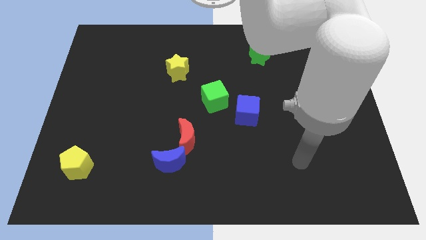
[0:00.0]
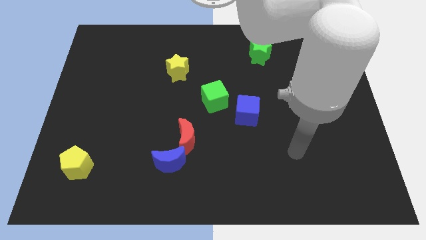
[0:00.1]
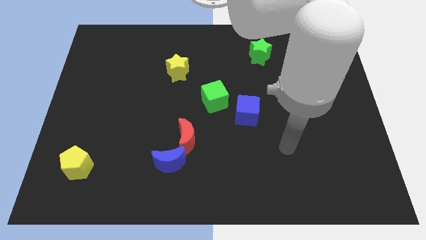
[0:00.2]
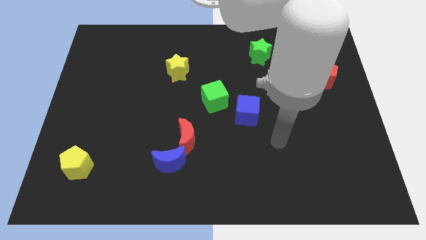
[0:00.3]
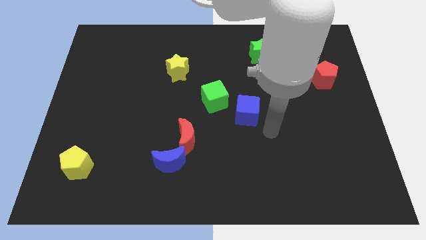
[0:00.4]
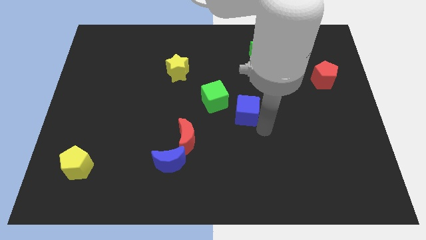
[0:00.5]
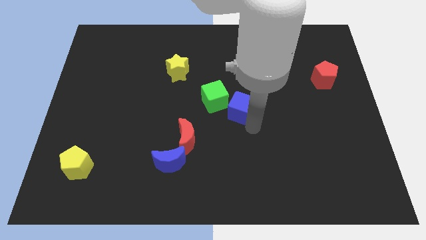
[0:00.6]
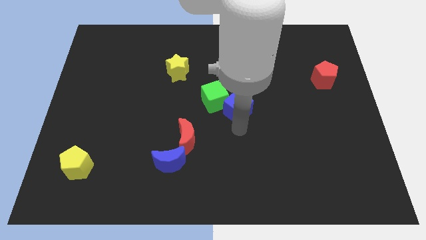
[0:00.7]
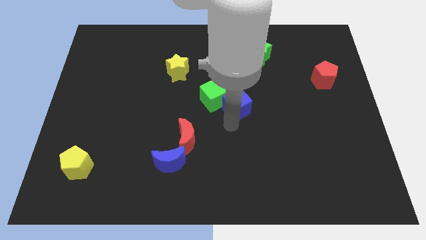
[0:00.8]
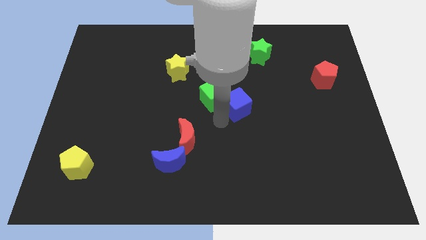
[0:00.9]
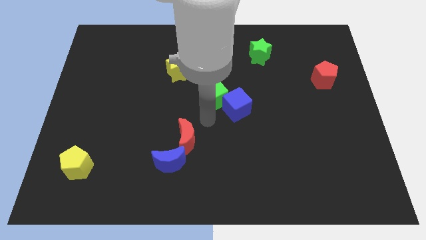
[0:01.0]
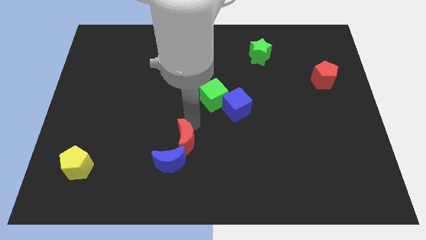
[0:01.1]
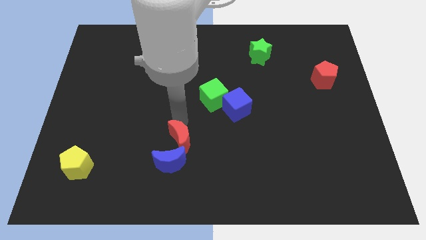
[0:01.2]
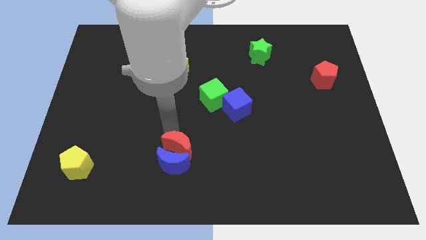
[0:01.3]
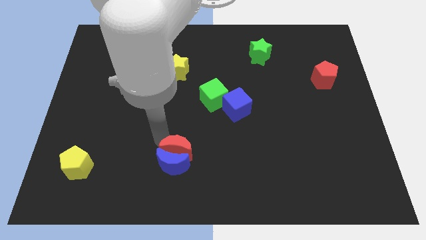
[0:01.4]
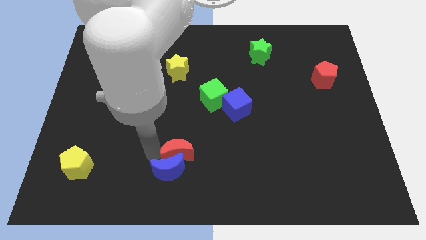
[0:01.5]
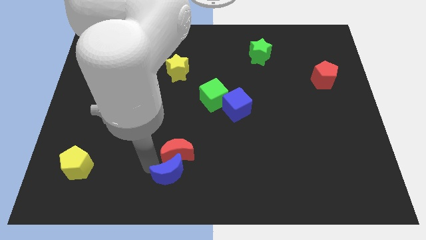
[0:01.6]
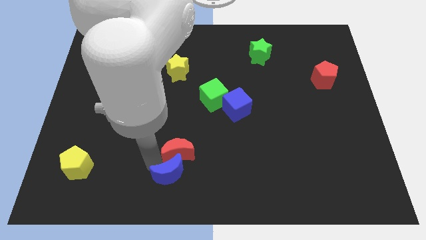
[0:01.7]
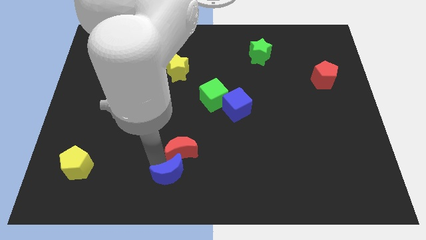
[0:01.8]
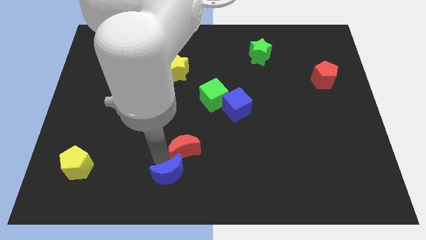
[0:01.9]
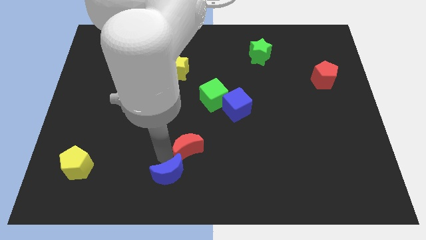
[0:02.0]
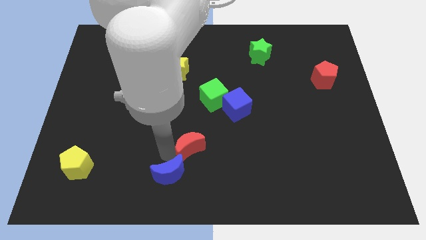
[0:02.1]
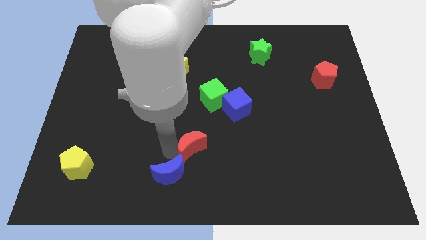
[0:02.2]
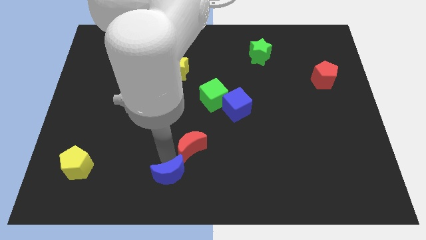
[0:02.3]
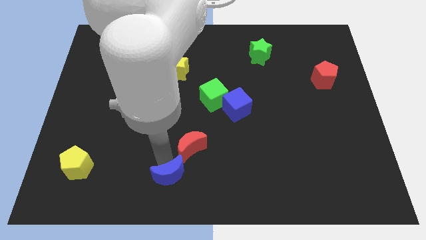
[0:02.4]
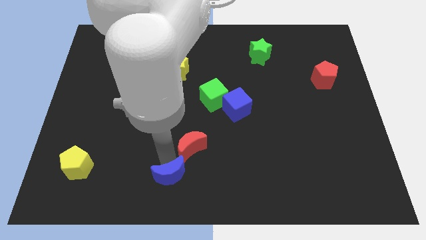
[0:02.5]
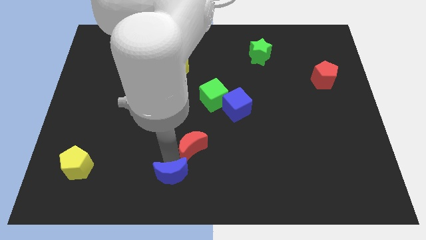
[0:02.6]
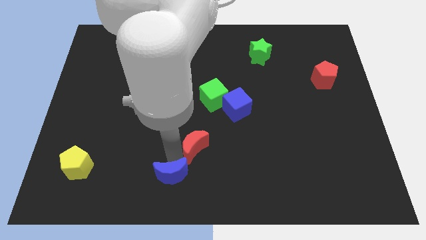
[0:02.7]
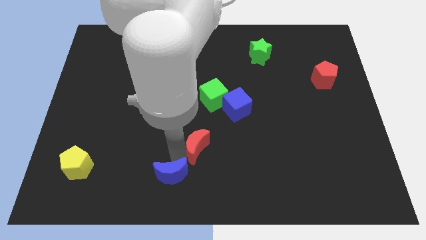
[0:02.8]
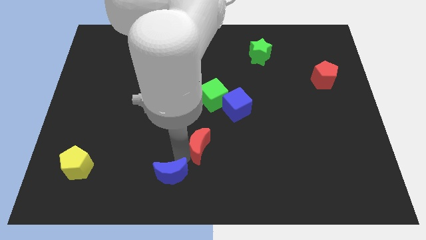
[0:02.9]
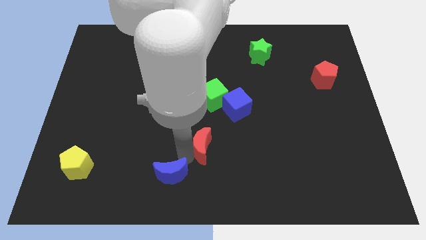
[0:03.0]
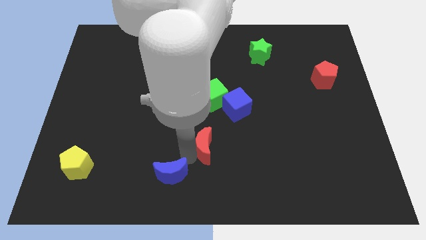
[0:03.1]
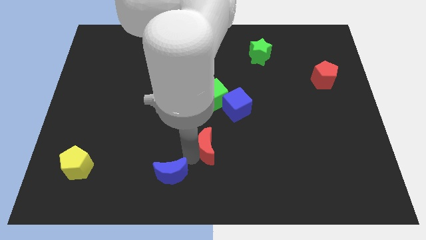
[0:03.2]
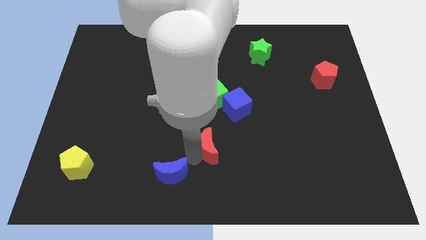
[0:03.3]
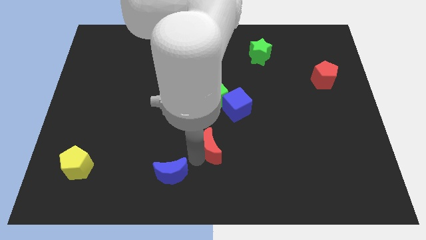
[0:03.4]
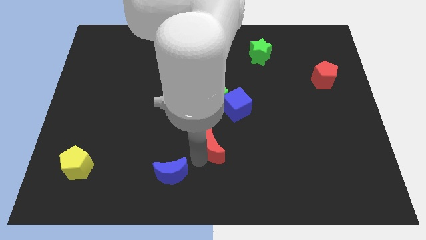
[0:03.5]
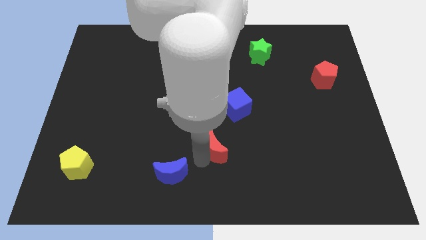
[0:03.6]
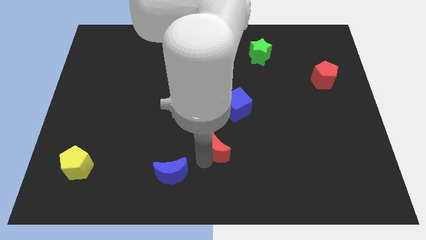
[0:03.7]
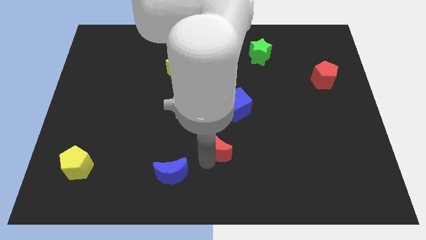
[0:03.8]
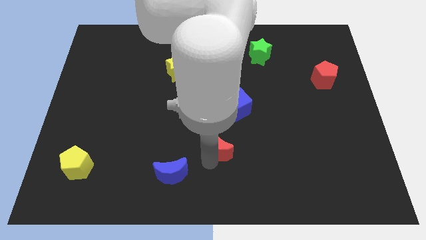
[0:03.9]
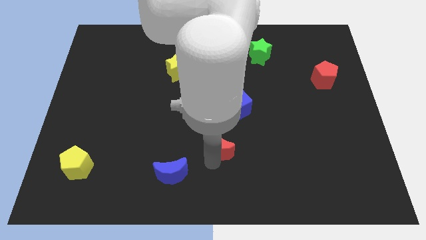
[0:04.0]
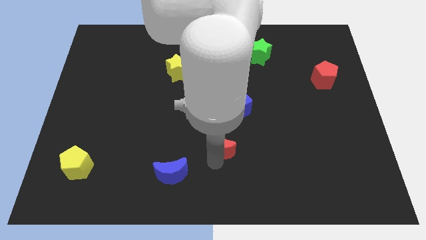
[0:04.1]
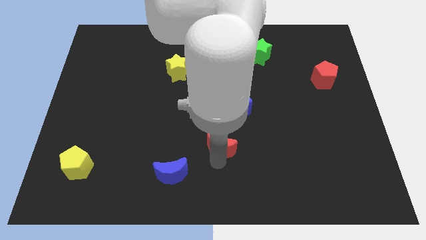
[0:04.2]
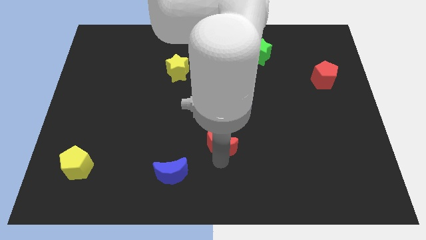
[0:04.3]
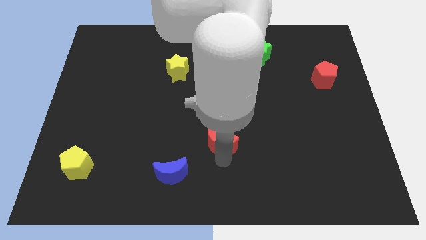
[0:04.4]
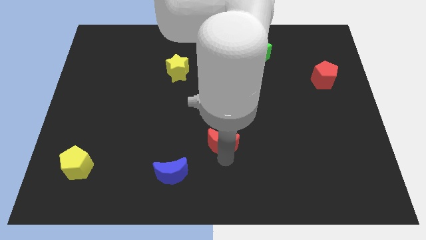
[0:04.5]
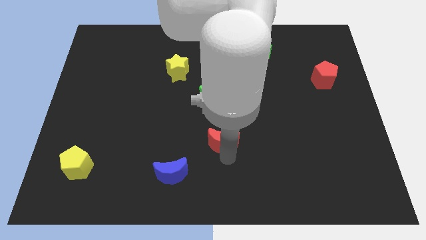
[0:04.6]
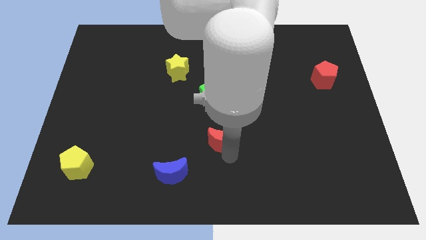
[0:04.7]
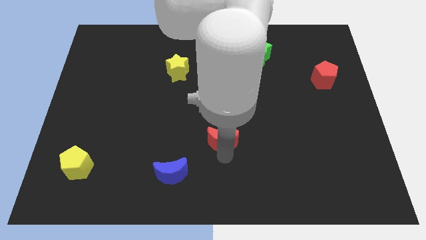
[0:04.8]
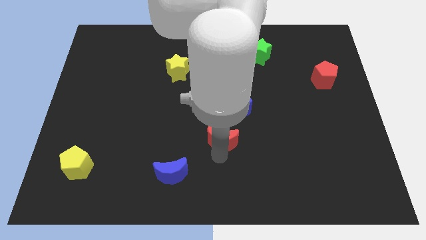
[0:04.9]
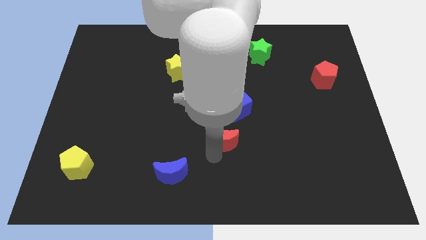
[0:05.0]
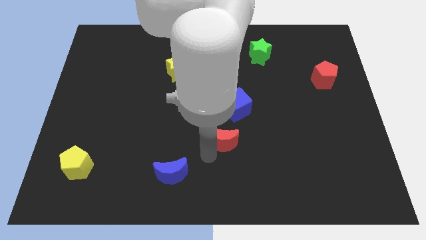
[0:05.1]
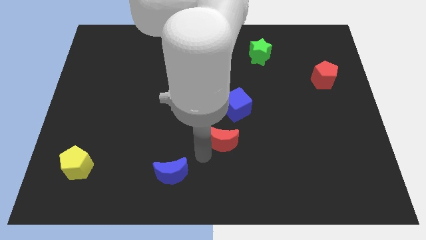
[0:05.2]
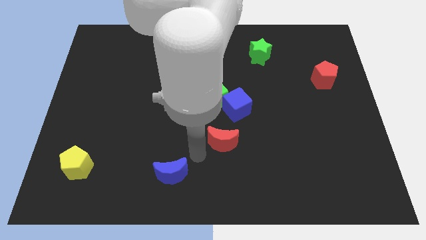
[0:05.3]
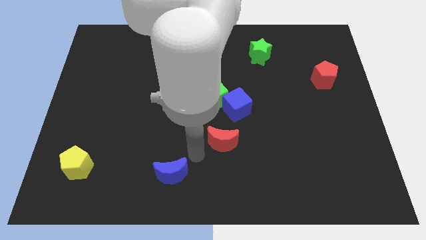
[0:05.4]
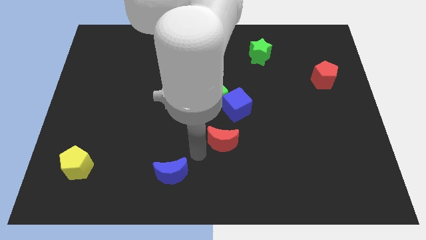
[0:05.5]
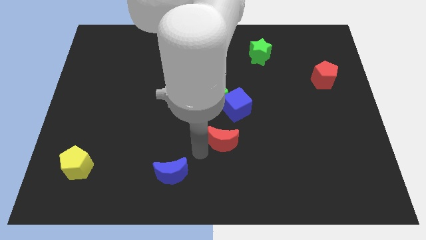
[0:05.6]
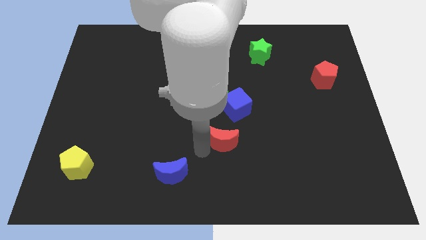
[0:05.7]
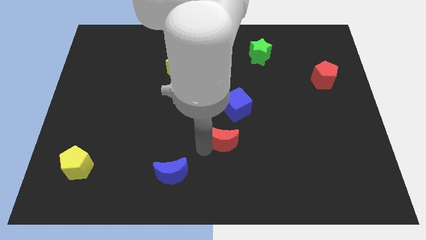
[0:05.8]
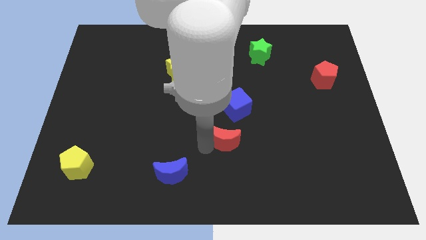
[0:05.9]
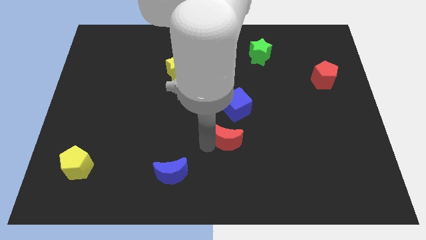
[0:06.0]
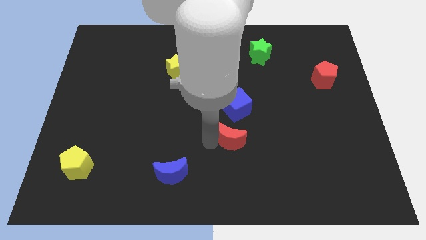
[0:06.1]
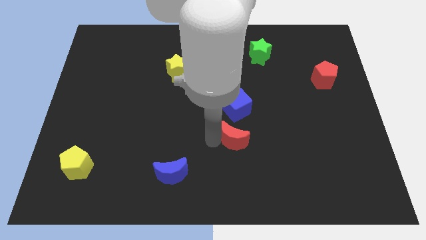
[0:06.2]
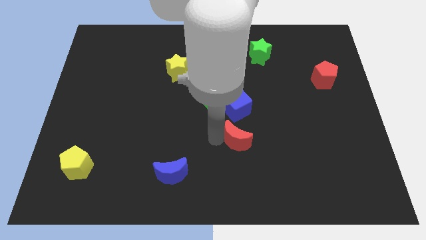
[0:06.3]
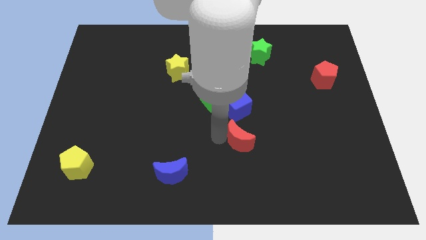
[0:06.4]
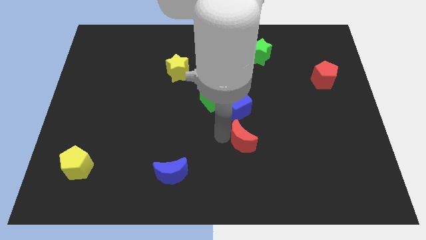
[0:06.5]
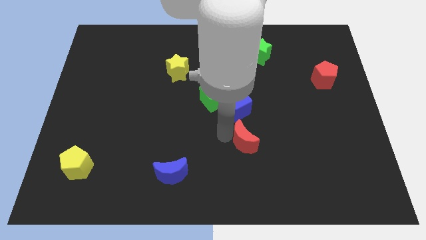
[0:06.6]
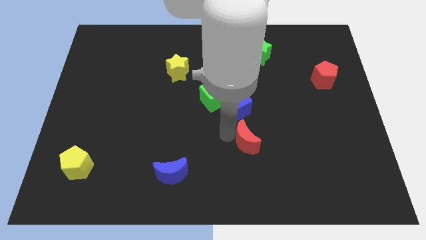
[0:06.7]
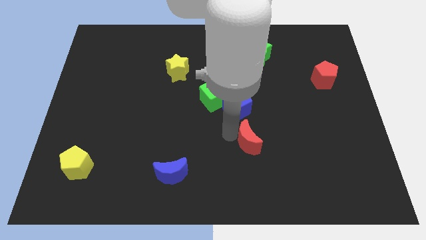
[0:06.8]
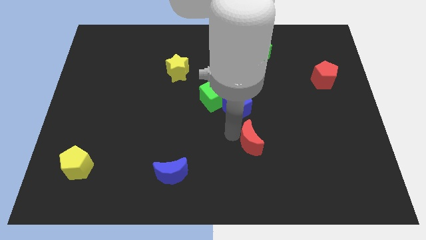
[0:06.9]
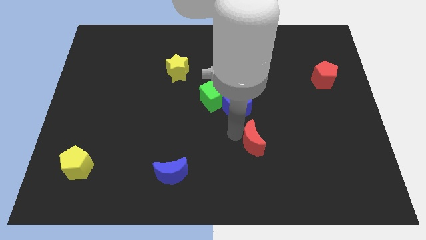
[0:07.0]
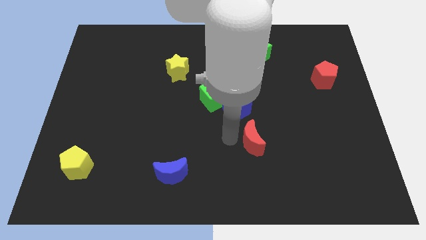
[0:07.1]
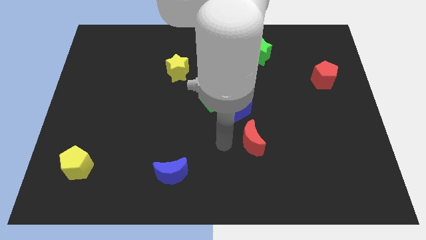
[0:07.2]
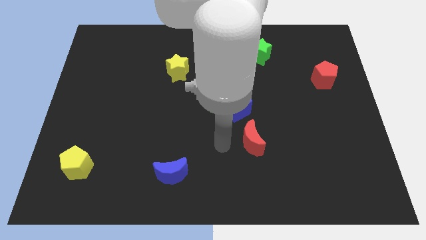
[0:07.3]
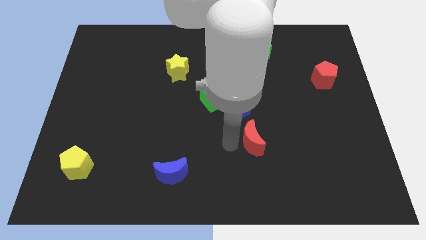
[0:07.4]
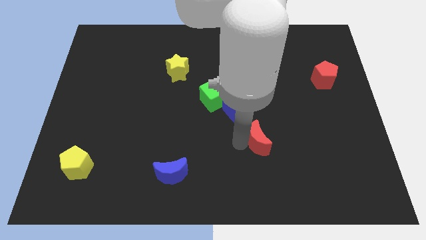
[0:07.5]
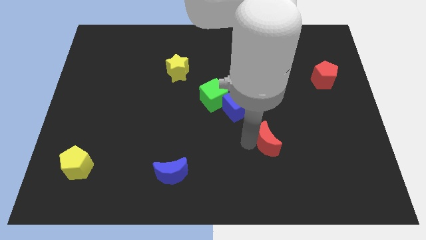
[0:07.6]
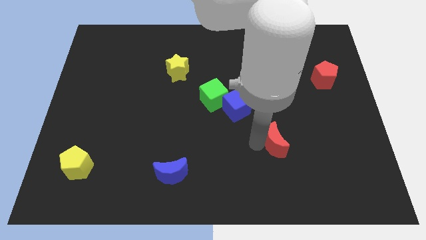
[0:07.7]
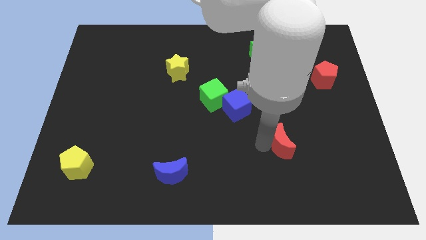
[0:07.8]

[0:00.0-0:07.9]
slide the red moon to the right
